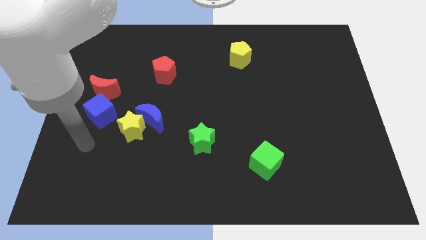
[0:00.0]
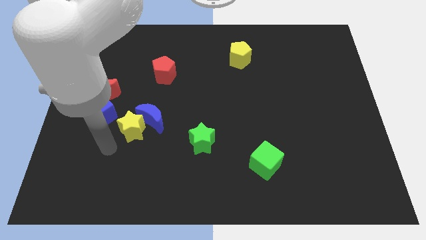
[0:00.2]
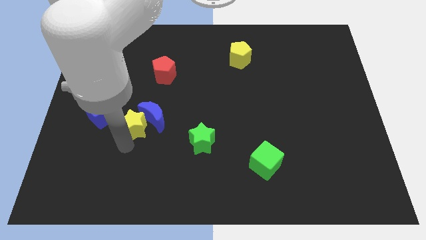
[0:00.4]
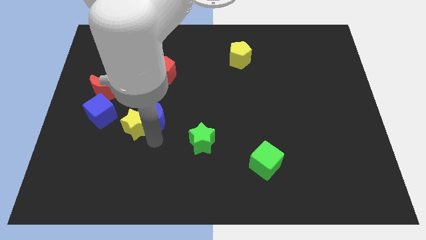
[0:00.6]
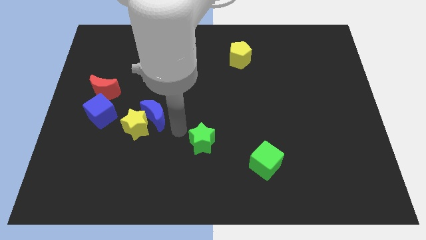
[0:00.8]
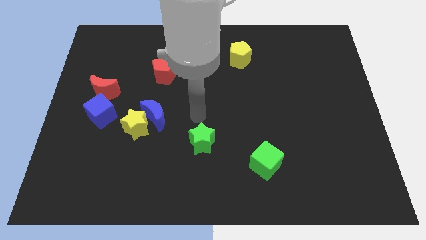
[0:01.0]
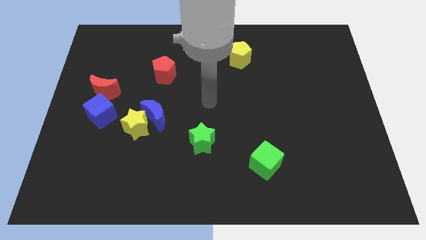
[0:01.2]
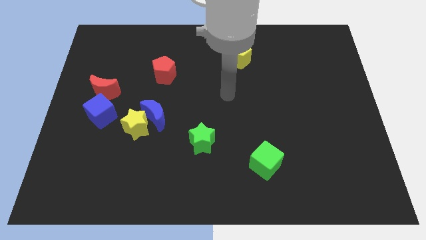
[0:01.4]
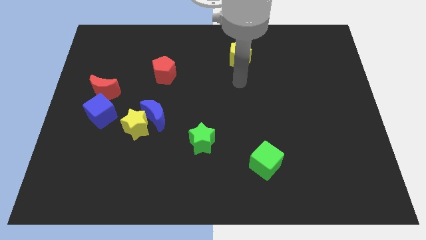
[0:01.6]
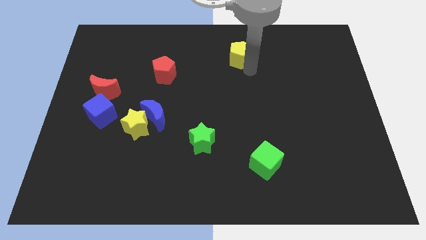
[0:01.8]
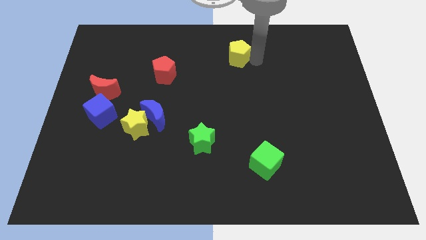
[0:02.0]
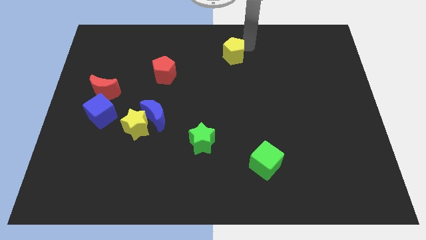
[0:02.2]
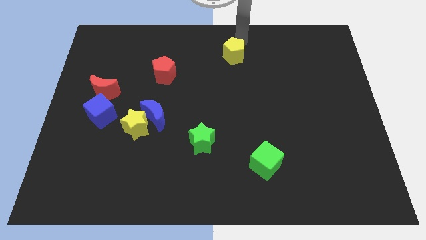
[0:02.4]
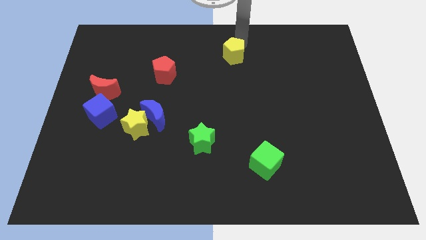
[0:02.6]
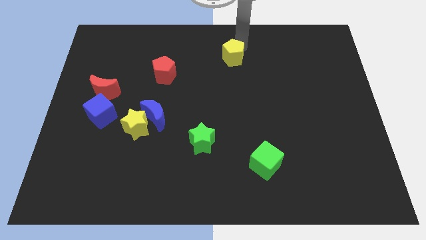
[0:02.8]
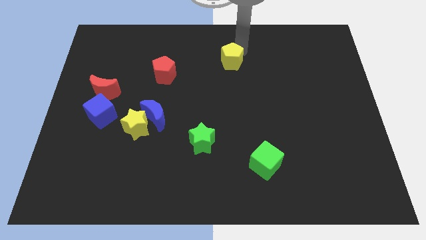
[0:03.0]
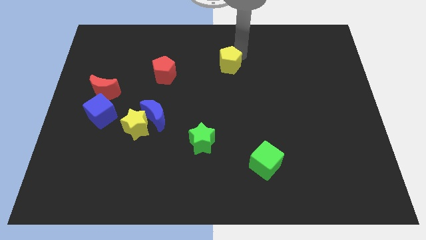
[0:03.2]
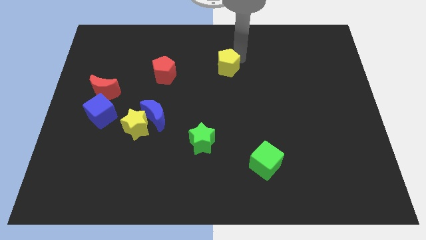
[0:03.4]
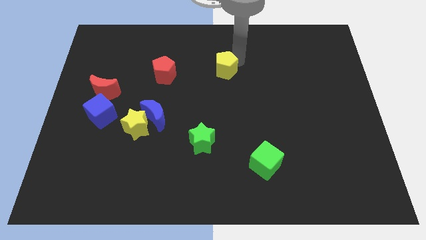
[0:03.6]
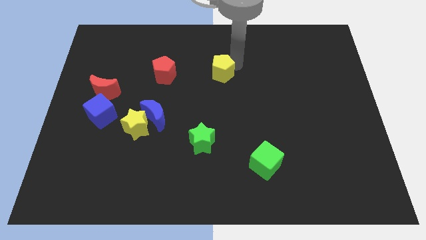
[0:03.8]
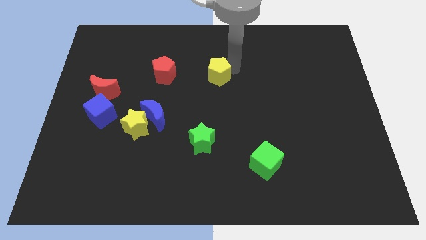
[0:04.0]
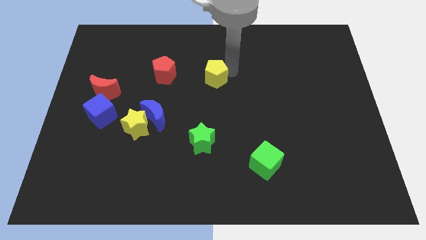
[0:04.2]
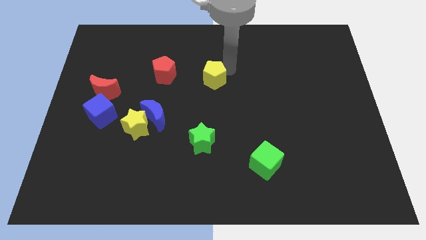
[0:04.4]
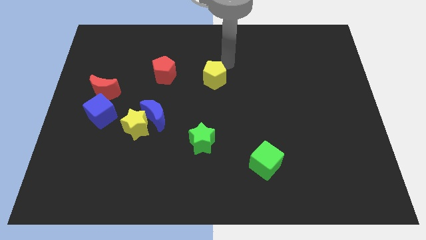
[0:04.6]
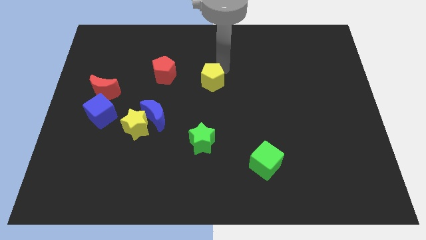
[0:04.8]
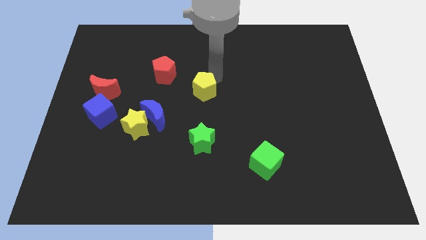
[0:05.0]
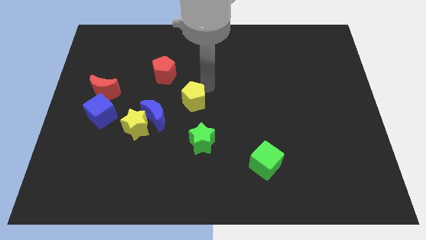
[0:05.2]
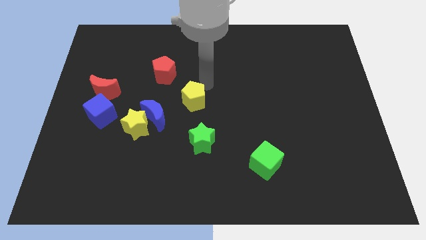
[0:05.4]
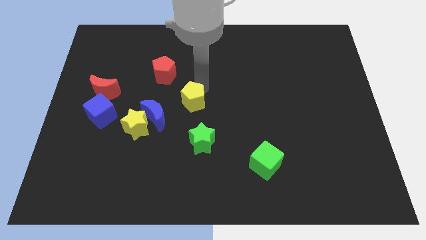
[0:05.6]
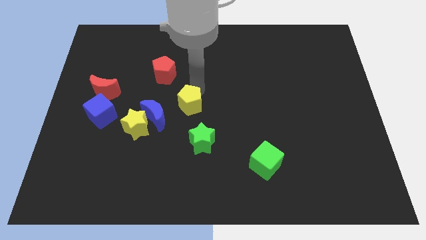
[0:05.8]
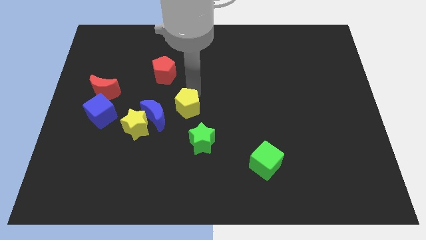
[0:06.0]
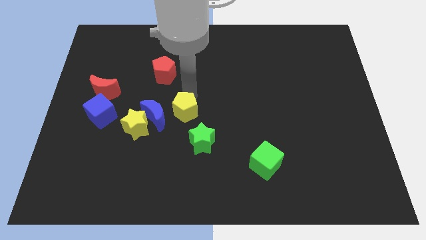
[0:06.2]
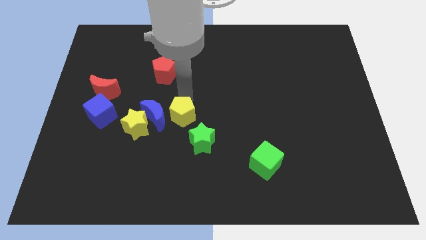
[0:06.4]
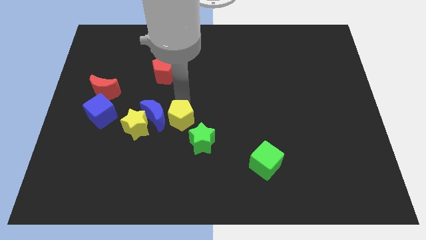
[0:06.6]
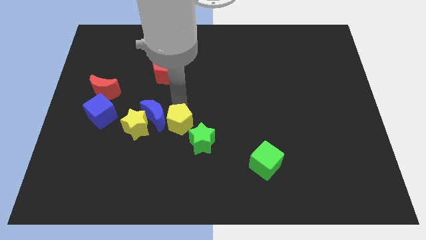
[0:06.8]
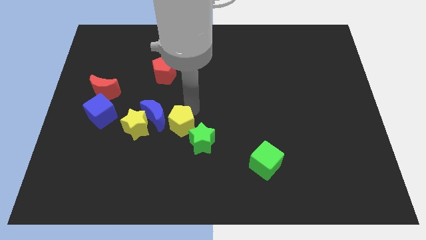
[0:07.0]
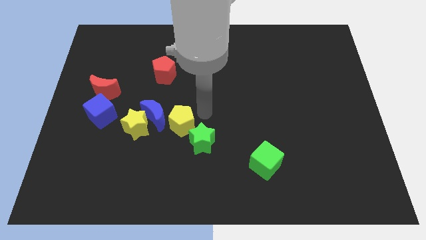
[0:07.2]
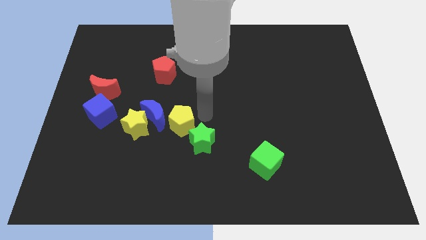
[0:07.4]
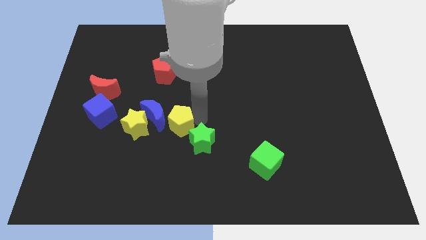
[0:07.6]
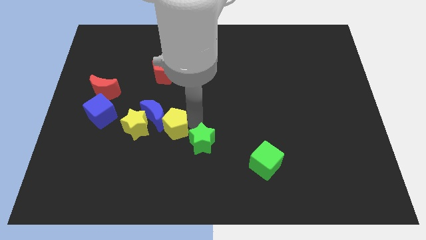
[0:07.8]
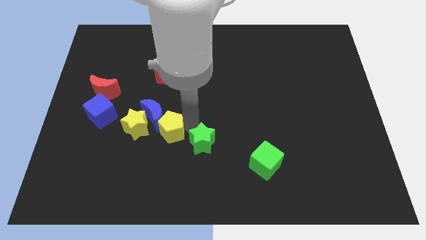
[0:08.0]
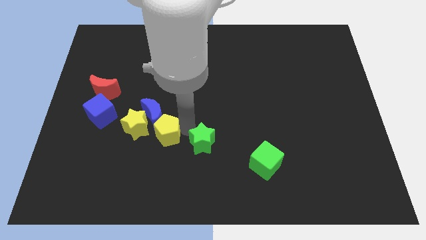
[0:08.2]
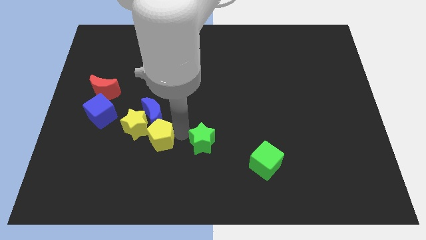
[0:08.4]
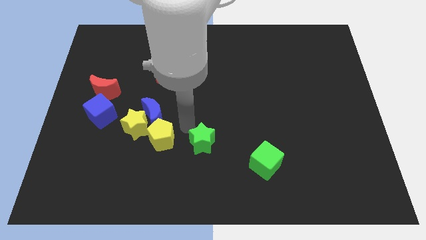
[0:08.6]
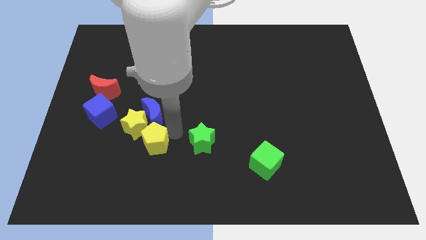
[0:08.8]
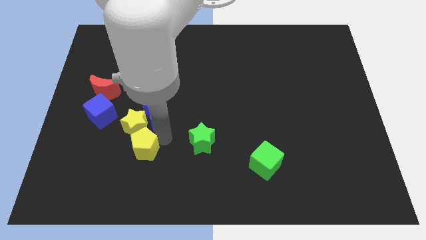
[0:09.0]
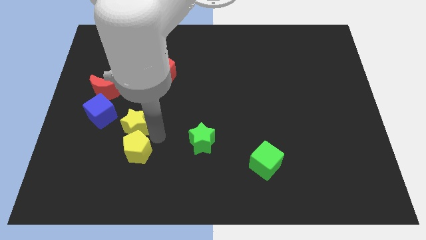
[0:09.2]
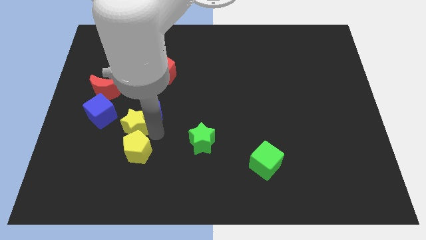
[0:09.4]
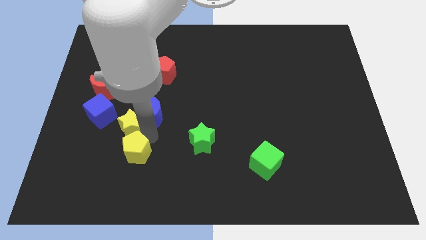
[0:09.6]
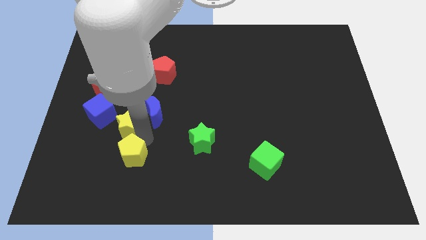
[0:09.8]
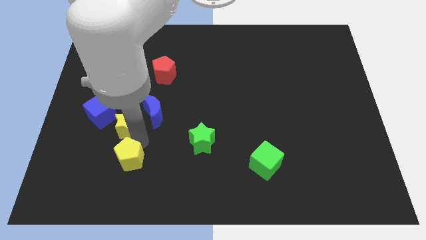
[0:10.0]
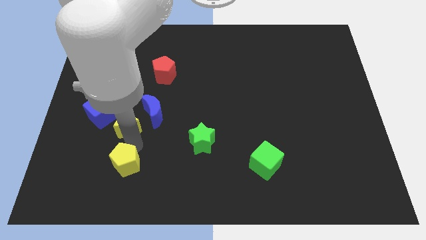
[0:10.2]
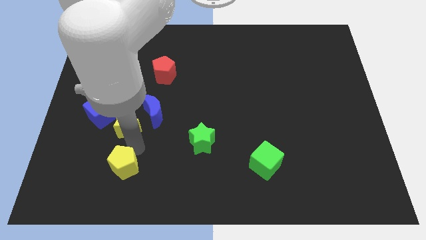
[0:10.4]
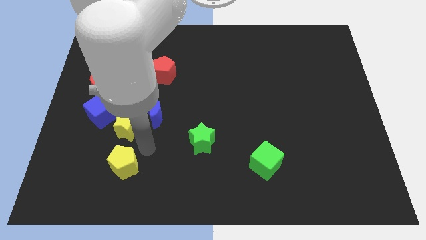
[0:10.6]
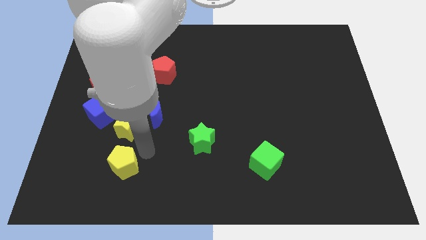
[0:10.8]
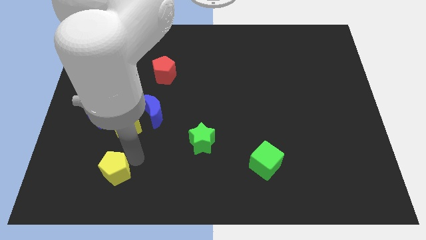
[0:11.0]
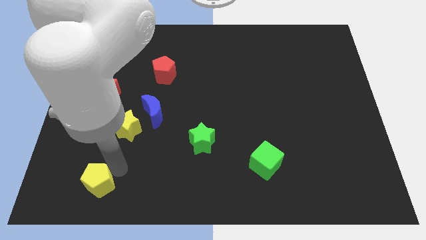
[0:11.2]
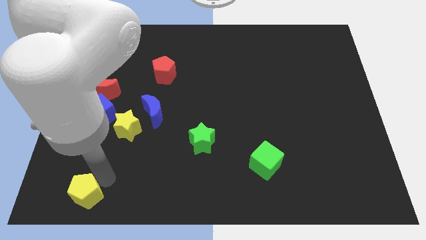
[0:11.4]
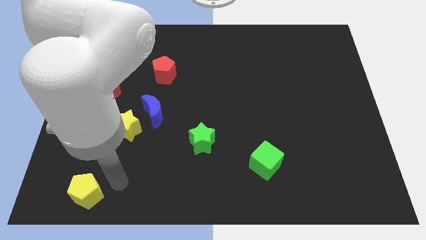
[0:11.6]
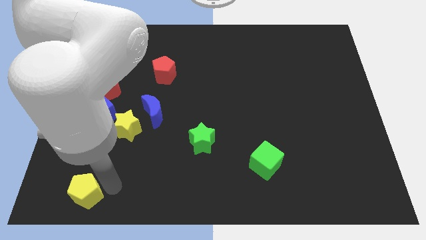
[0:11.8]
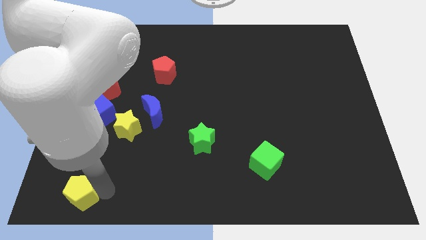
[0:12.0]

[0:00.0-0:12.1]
put the yellow pentagon to the bottom left
